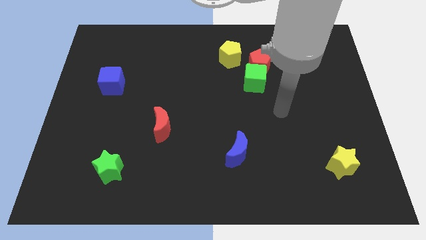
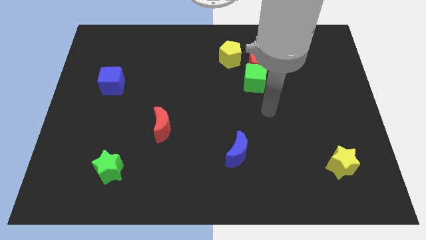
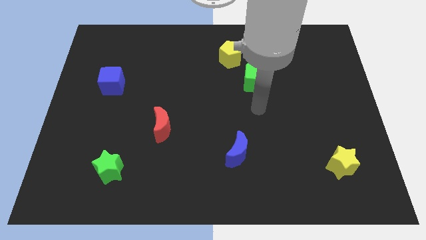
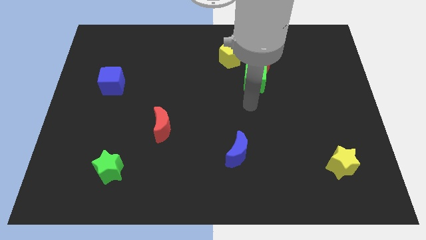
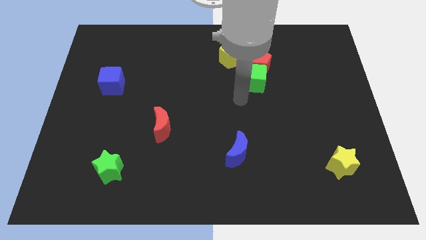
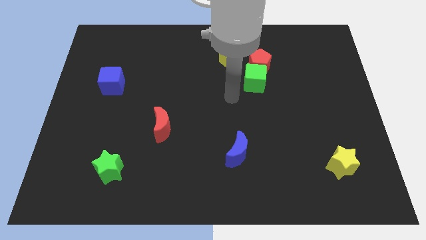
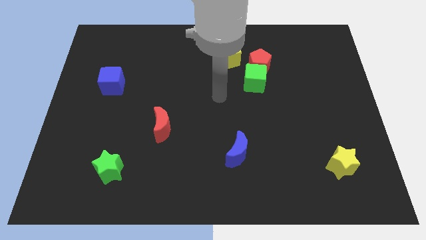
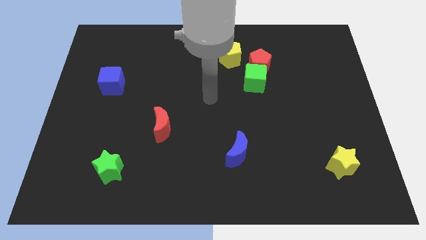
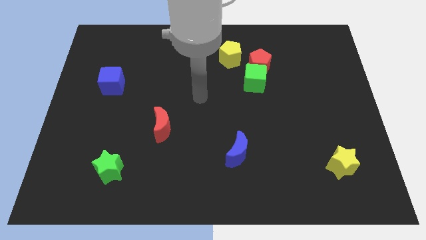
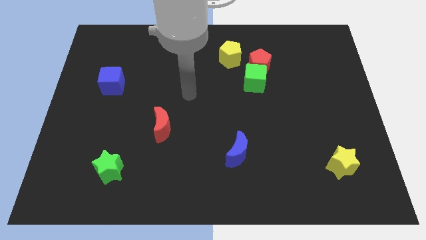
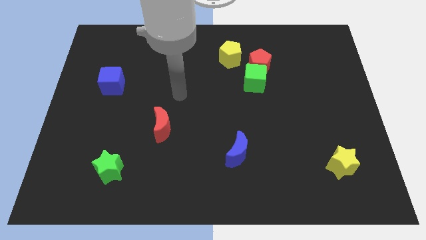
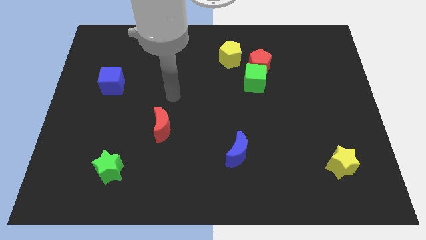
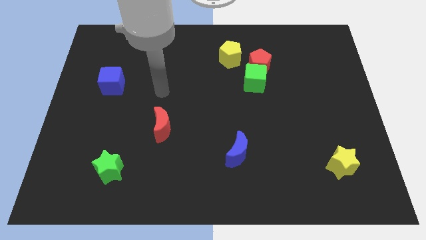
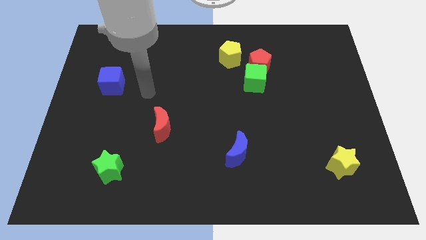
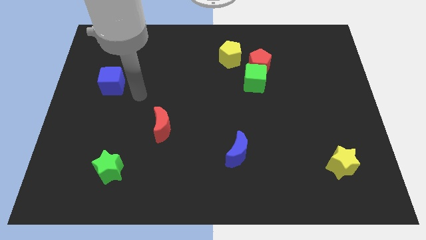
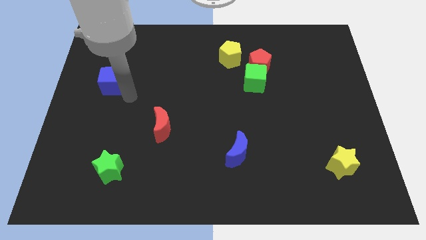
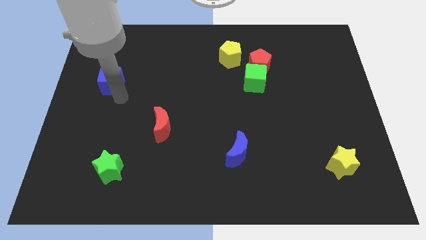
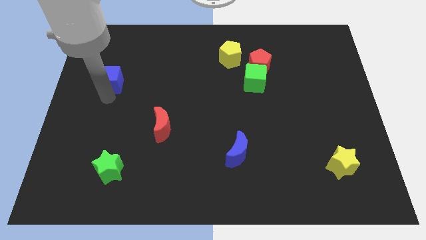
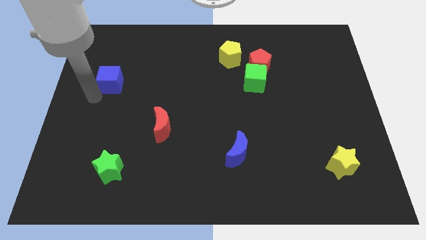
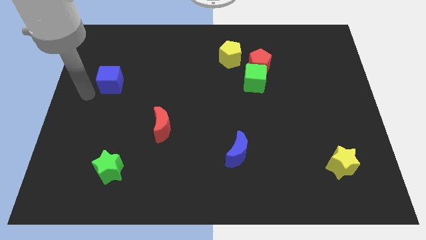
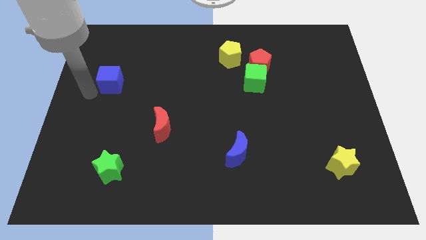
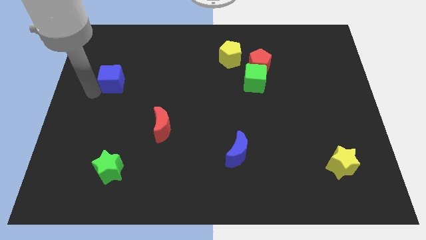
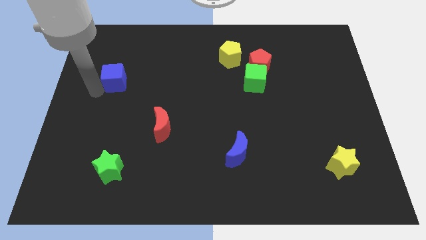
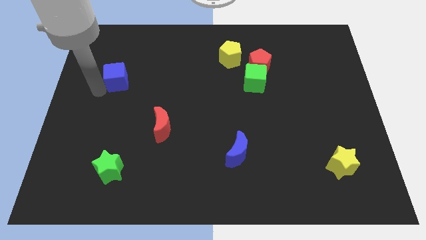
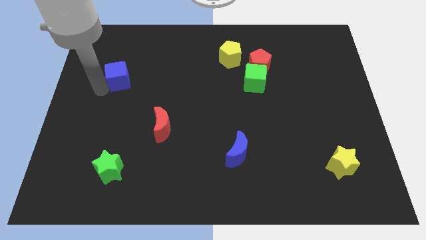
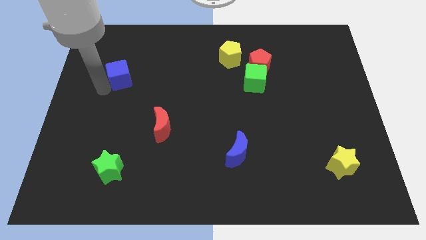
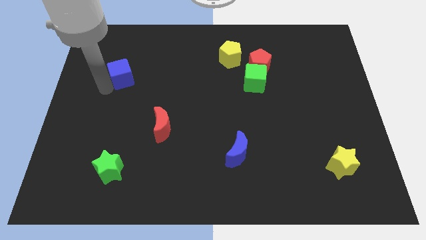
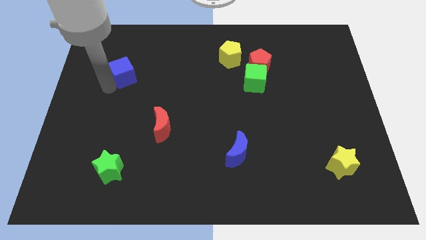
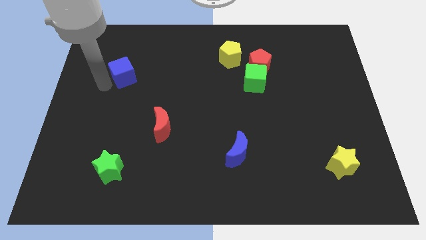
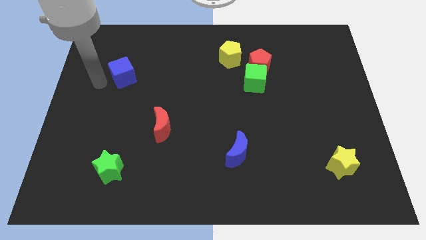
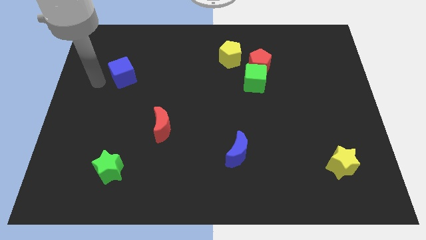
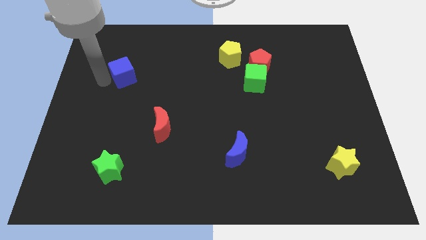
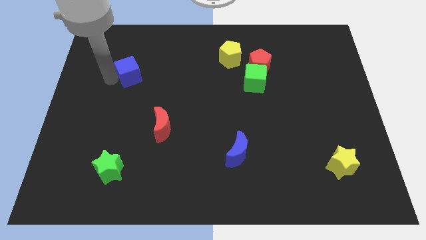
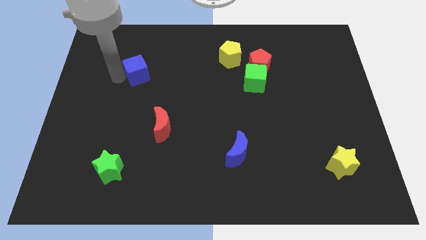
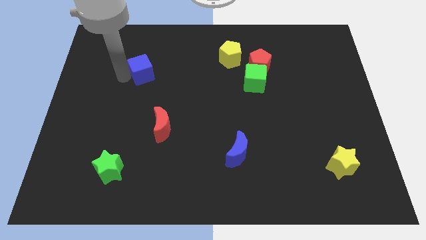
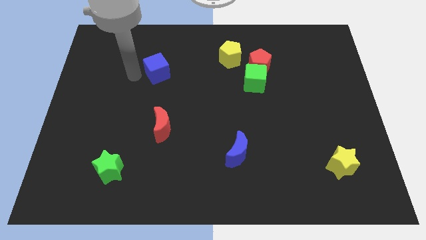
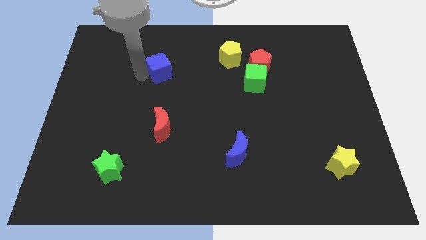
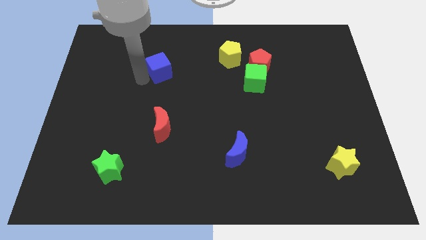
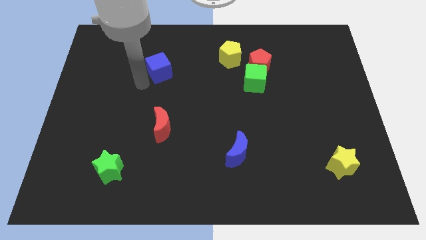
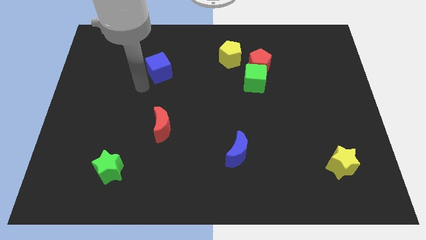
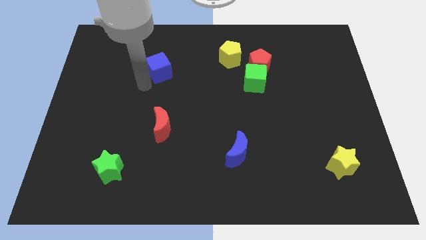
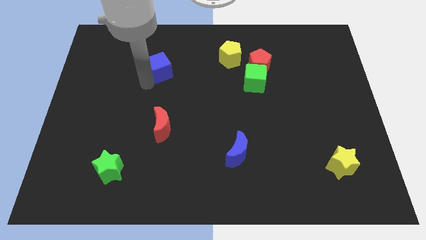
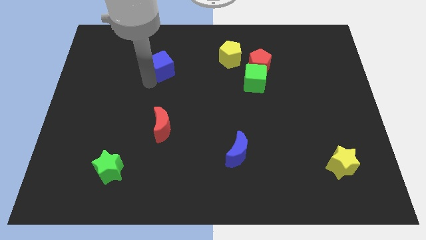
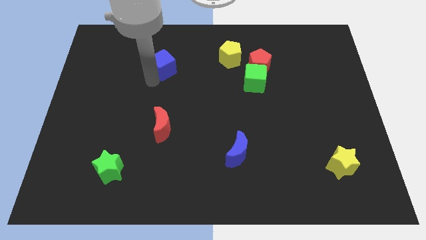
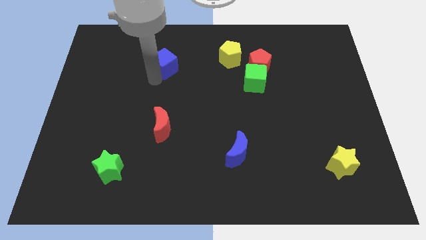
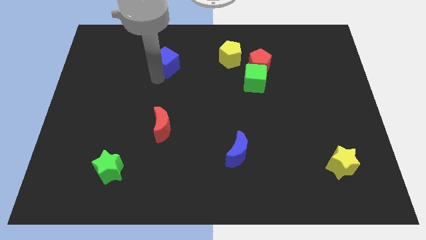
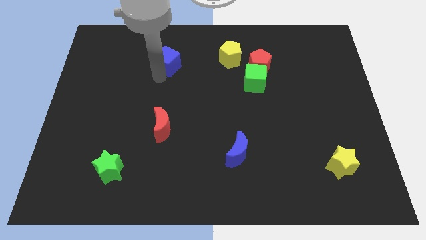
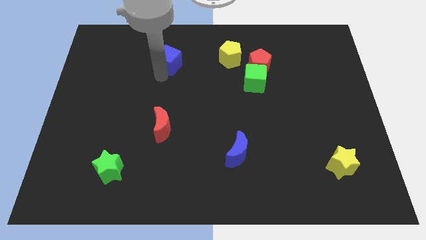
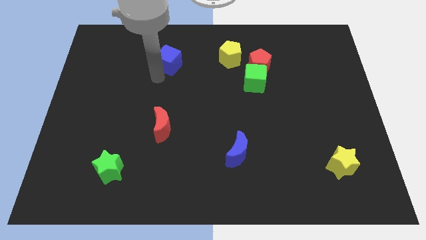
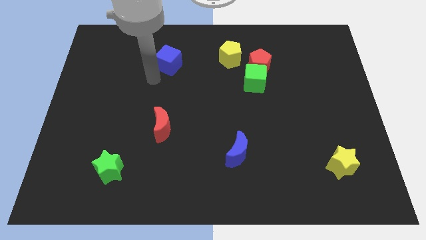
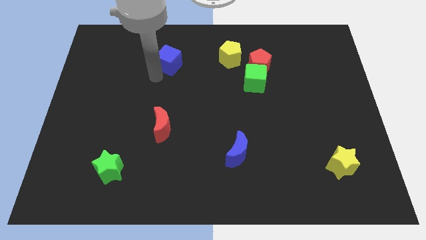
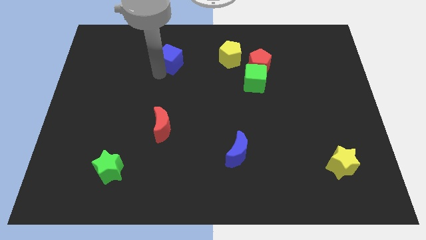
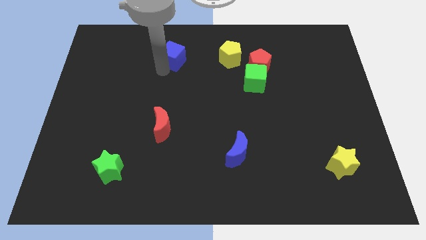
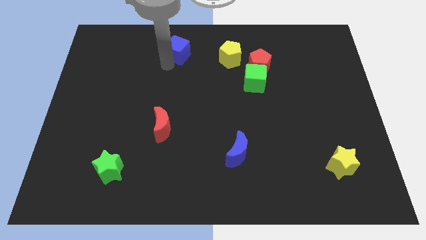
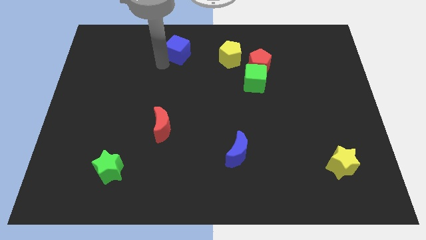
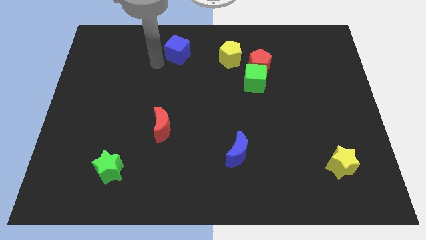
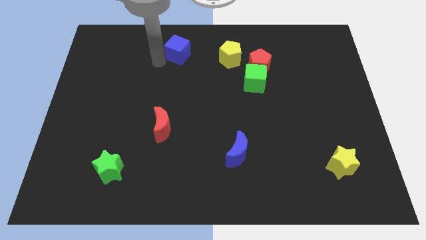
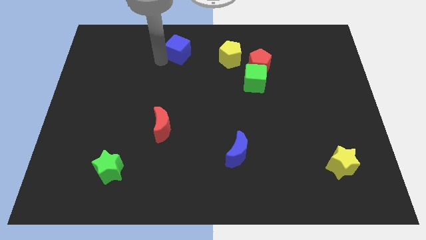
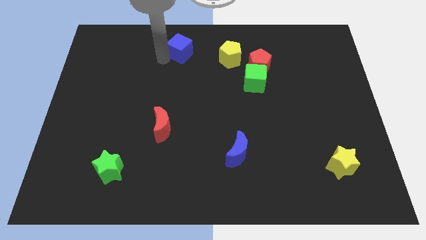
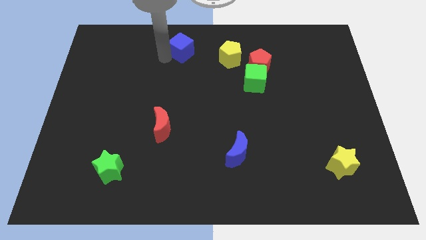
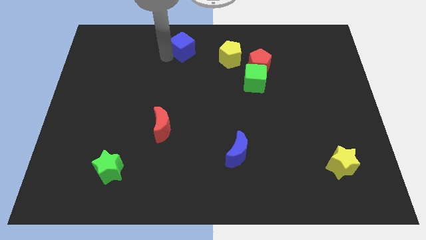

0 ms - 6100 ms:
move the blue cube to the top
